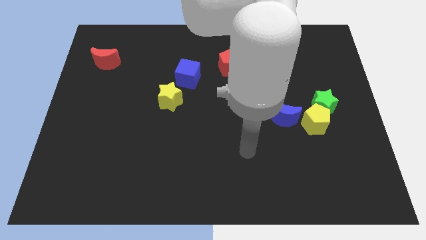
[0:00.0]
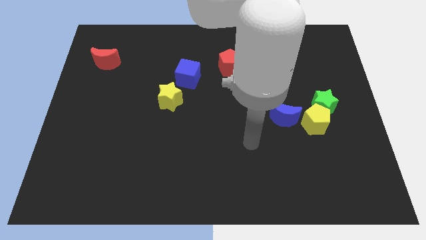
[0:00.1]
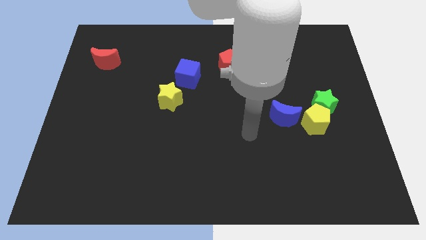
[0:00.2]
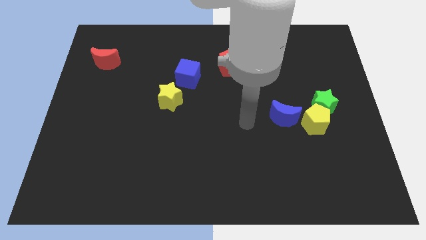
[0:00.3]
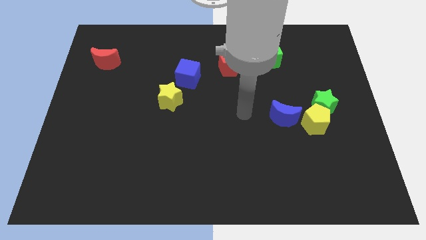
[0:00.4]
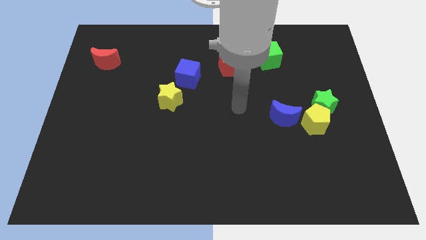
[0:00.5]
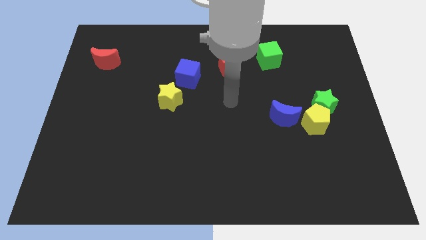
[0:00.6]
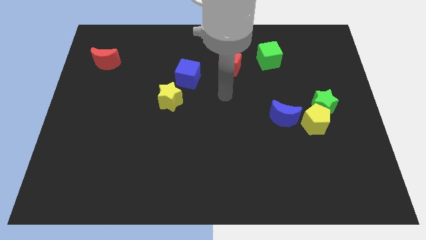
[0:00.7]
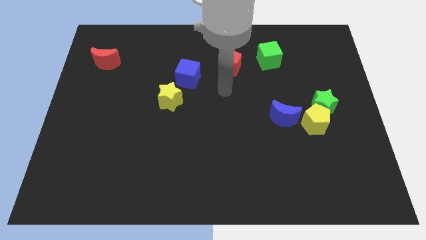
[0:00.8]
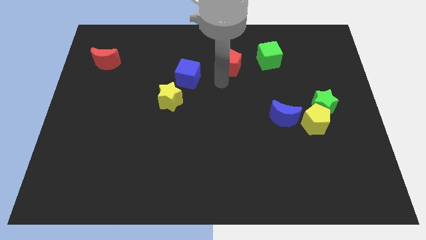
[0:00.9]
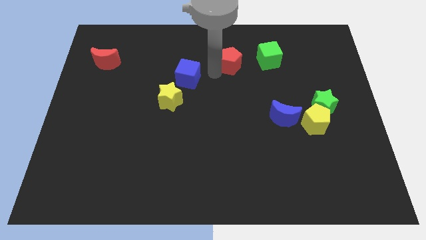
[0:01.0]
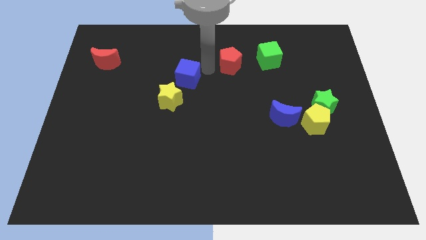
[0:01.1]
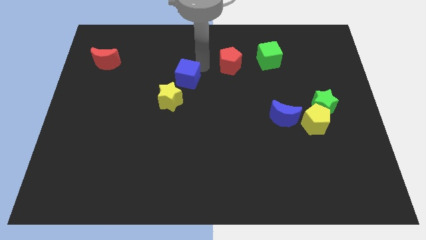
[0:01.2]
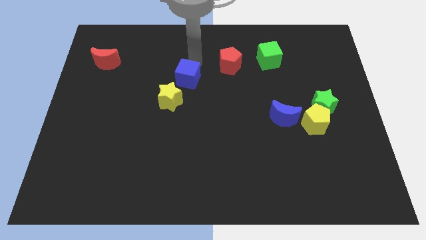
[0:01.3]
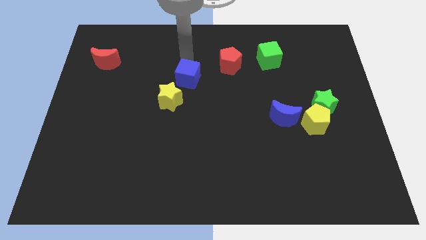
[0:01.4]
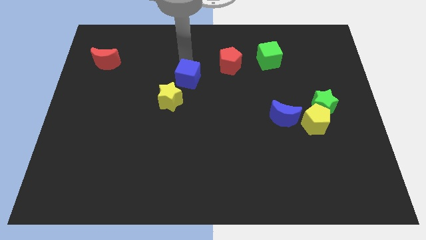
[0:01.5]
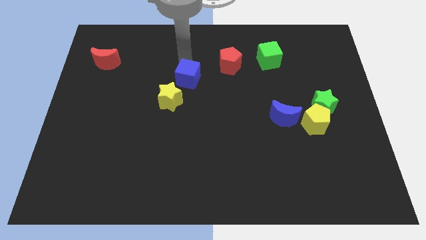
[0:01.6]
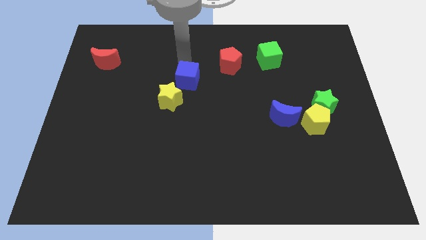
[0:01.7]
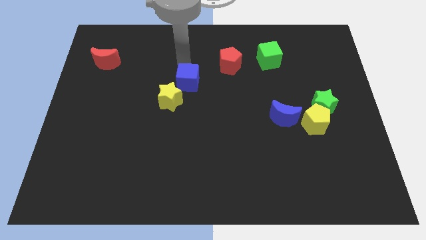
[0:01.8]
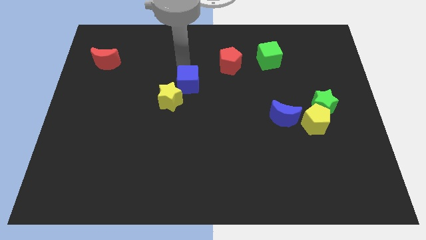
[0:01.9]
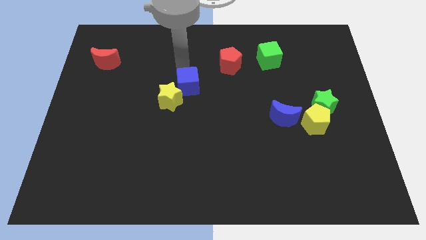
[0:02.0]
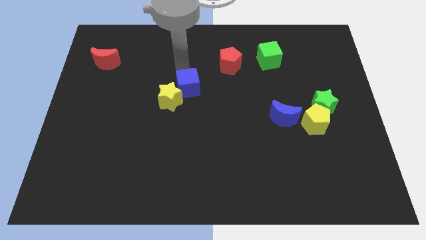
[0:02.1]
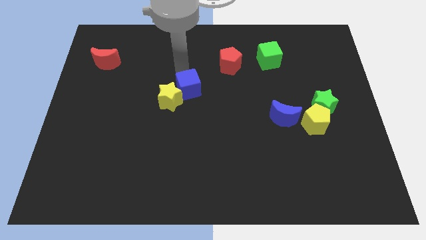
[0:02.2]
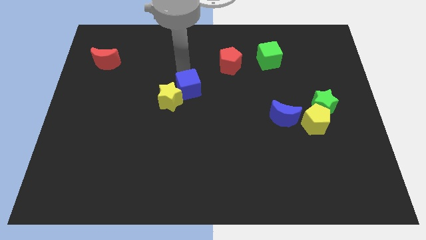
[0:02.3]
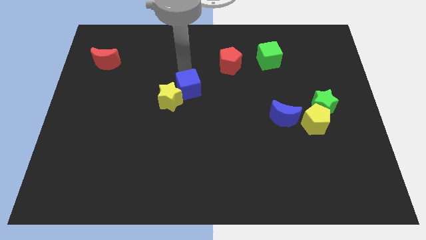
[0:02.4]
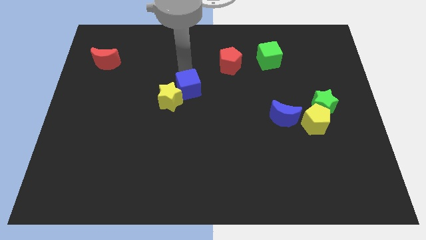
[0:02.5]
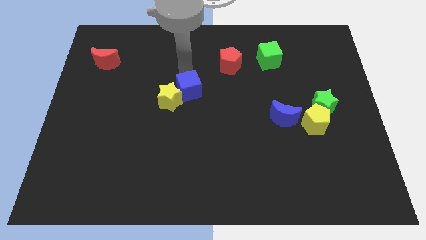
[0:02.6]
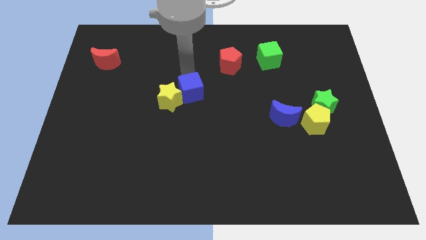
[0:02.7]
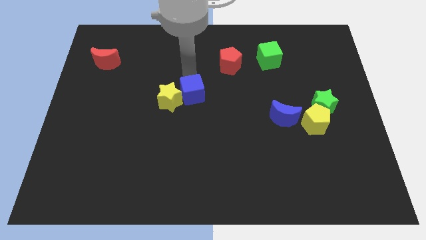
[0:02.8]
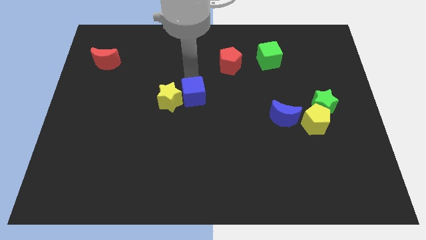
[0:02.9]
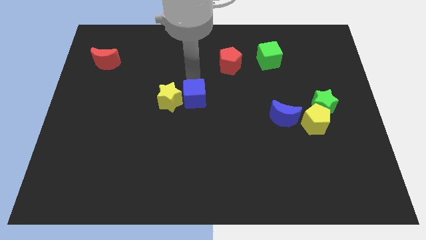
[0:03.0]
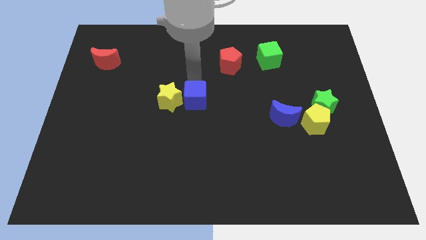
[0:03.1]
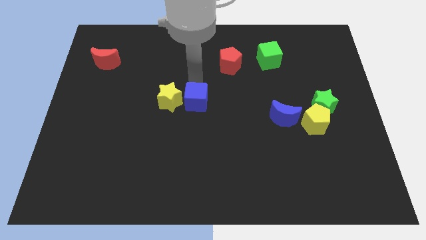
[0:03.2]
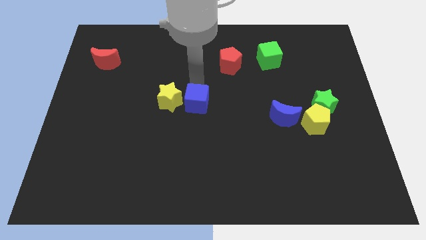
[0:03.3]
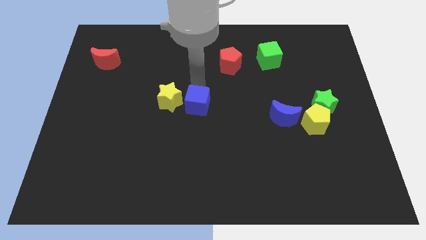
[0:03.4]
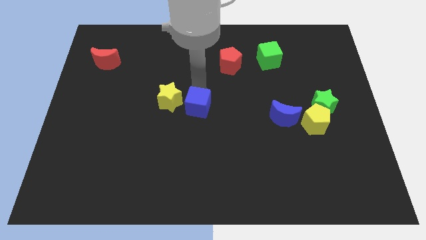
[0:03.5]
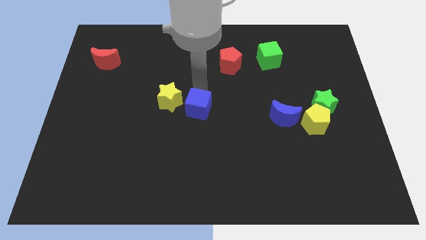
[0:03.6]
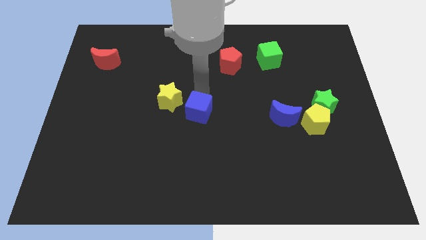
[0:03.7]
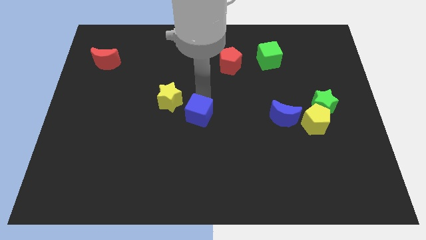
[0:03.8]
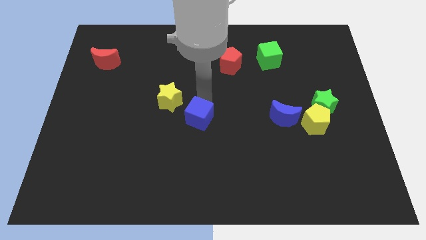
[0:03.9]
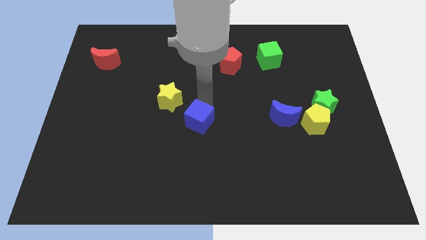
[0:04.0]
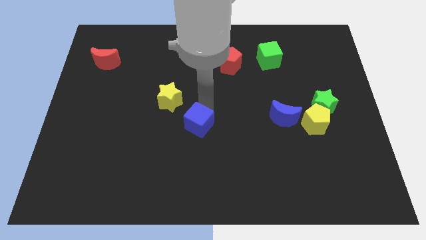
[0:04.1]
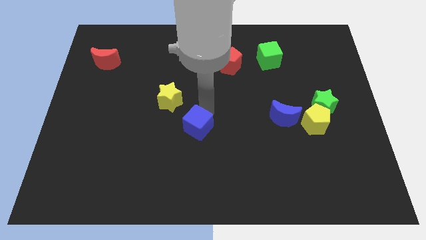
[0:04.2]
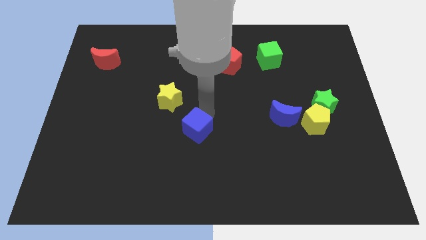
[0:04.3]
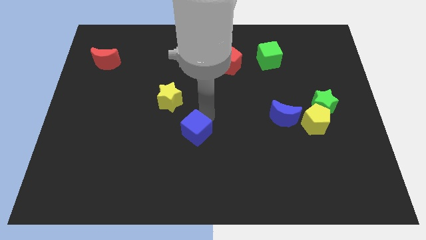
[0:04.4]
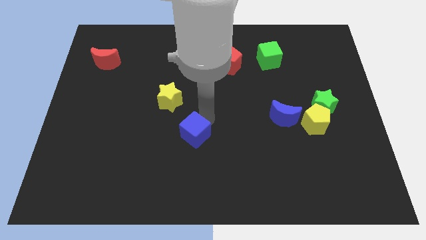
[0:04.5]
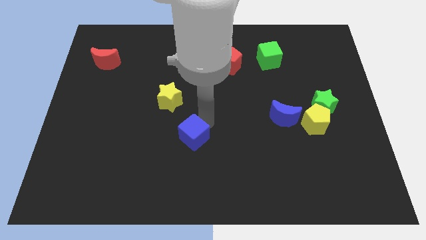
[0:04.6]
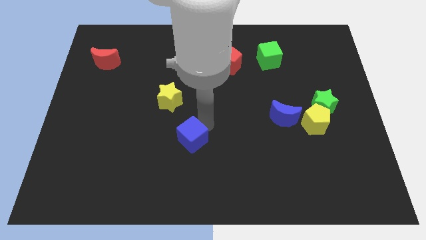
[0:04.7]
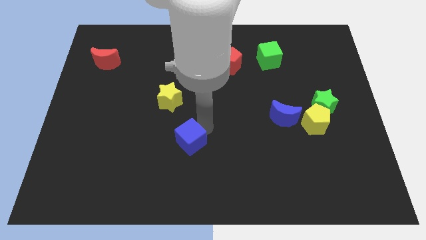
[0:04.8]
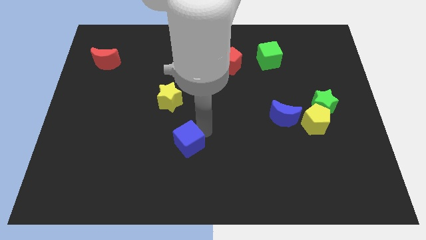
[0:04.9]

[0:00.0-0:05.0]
put the blue cube to the bottom side of the yellow star

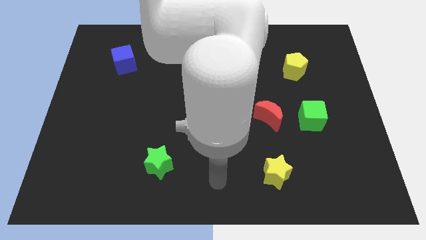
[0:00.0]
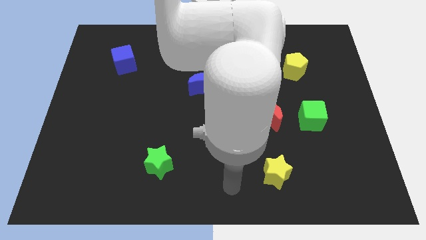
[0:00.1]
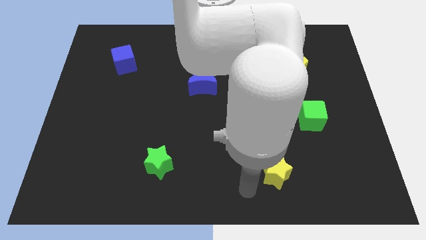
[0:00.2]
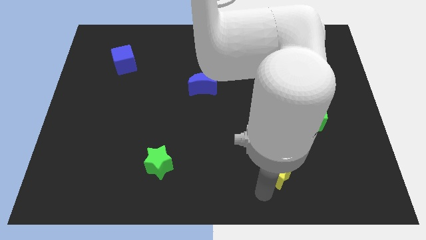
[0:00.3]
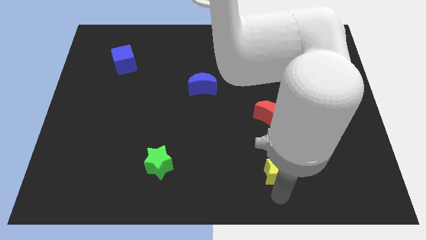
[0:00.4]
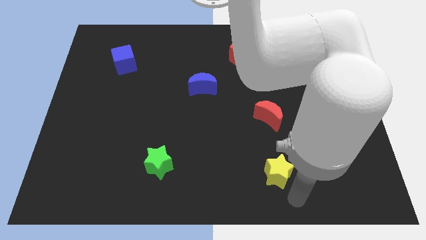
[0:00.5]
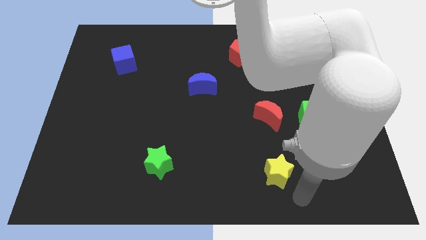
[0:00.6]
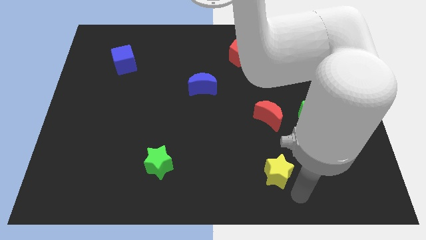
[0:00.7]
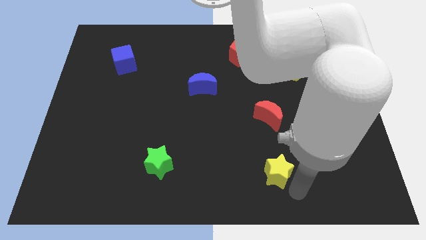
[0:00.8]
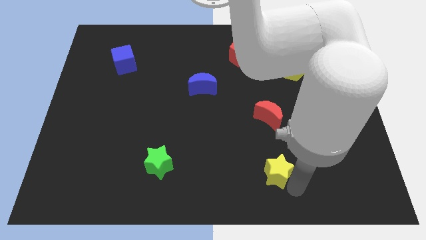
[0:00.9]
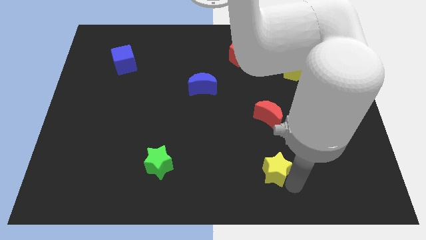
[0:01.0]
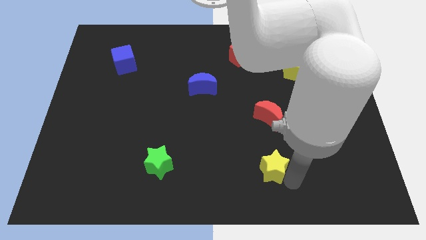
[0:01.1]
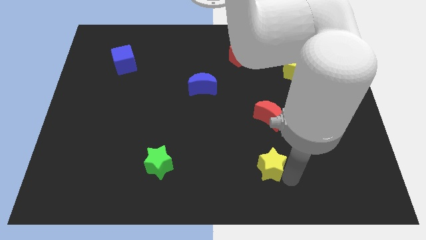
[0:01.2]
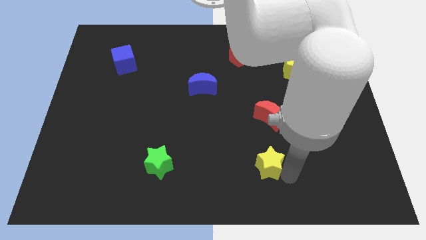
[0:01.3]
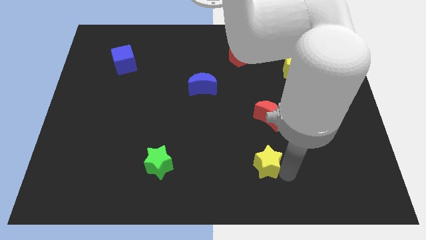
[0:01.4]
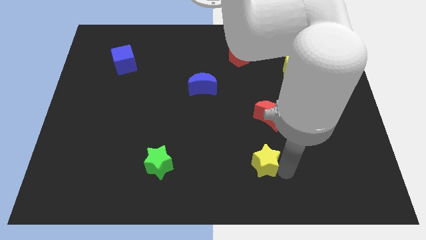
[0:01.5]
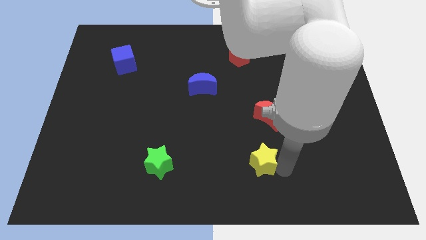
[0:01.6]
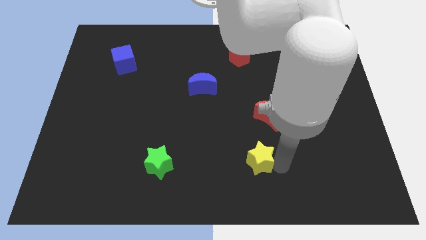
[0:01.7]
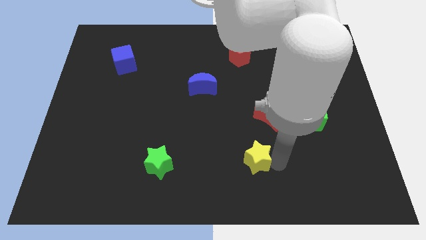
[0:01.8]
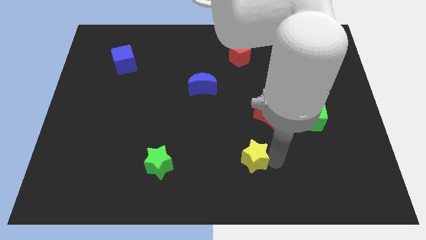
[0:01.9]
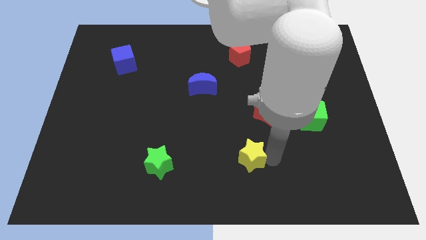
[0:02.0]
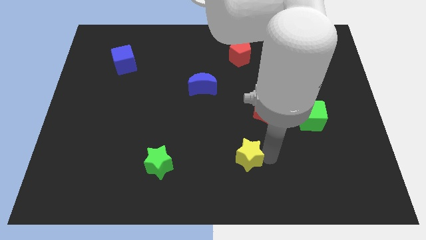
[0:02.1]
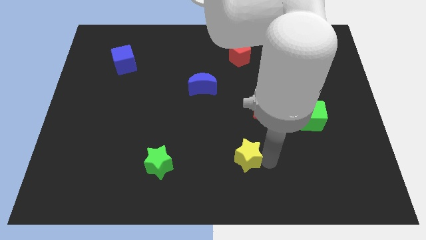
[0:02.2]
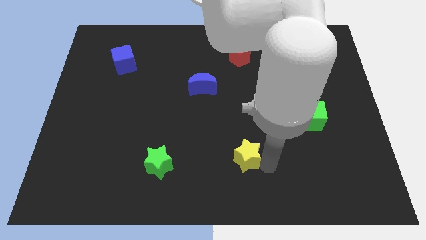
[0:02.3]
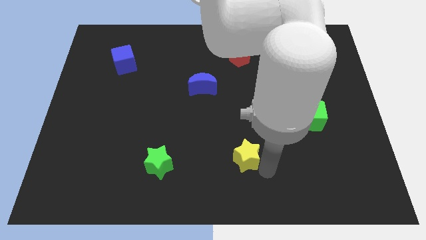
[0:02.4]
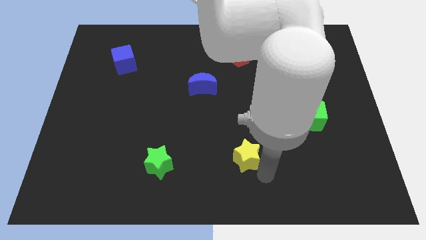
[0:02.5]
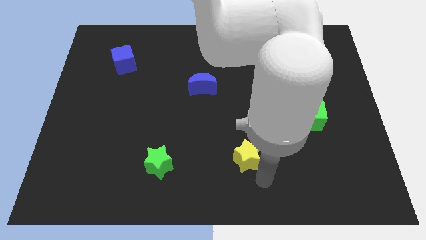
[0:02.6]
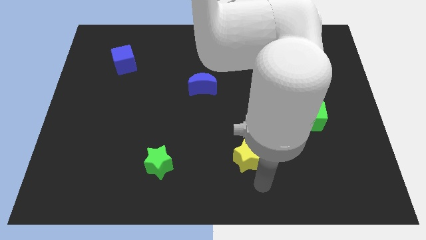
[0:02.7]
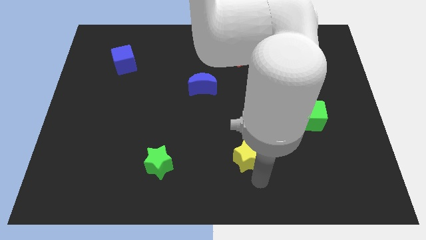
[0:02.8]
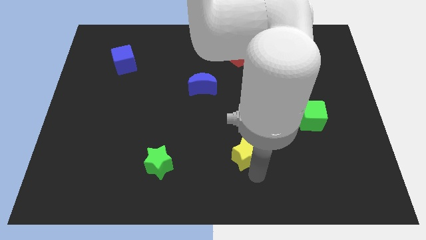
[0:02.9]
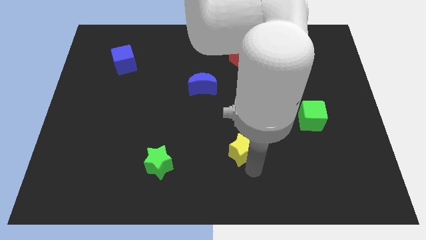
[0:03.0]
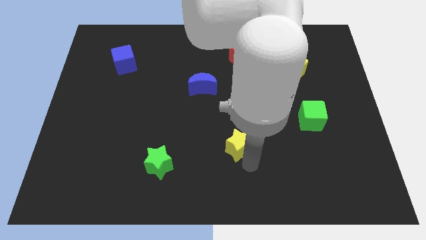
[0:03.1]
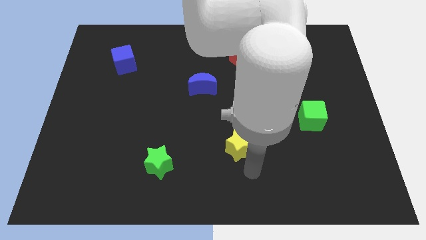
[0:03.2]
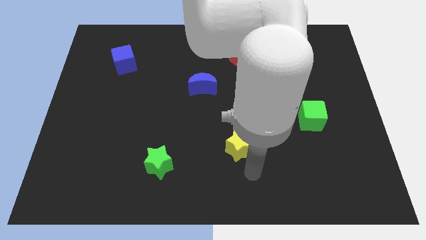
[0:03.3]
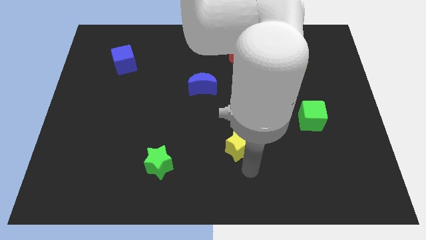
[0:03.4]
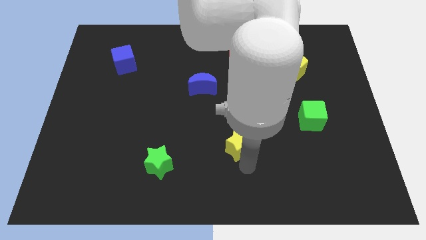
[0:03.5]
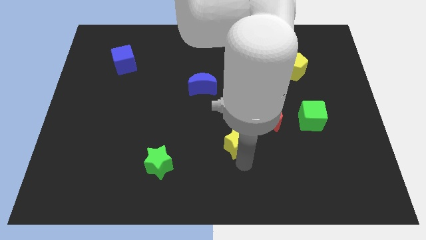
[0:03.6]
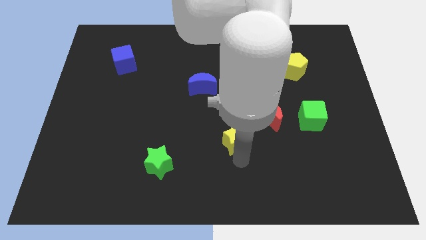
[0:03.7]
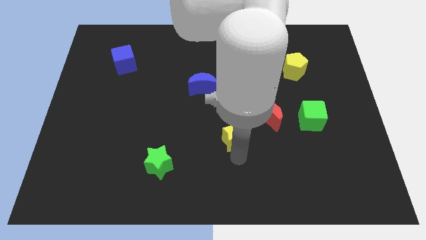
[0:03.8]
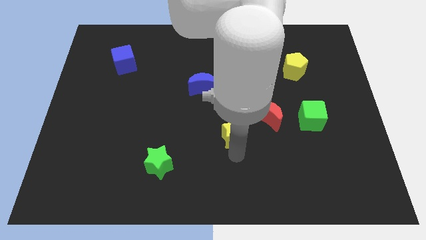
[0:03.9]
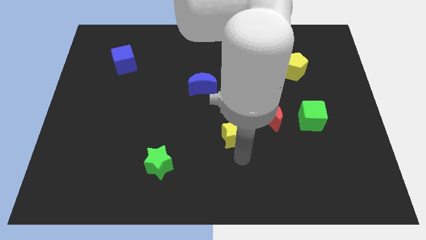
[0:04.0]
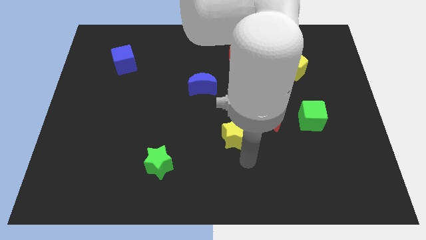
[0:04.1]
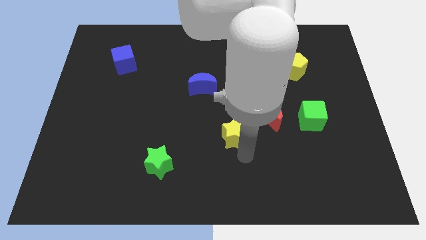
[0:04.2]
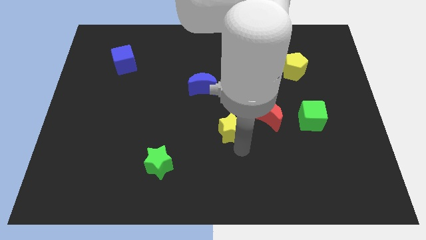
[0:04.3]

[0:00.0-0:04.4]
move the yellow star left of the red moon
